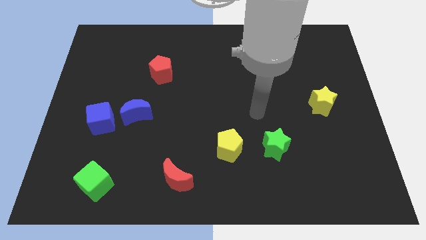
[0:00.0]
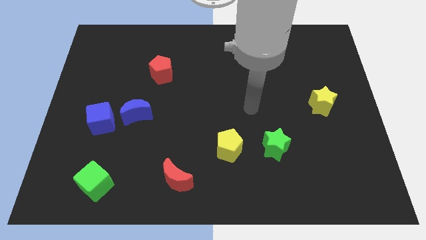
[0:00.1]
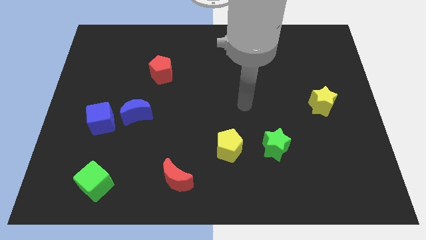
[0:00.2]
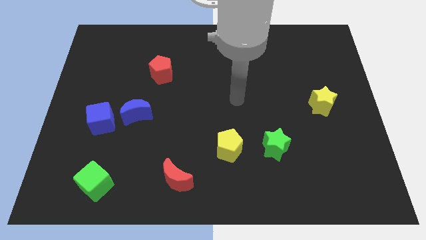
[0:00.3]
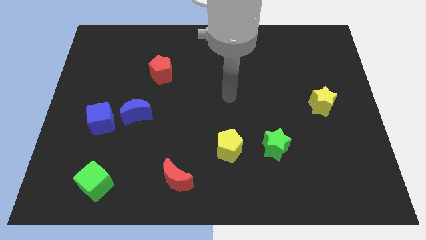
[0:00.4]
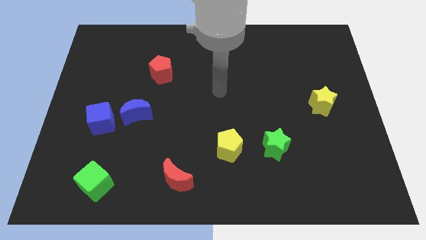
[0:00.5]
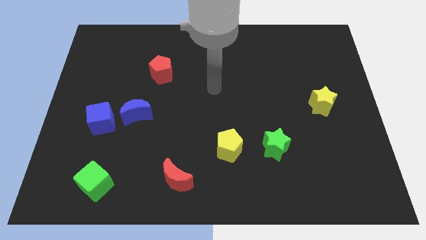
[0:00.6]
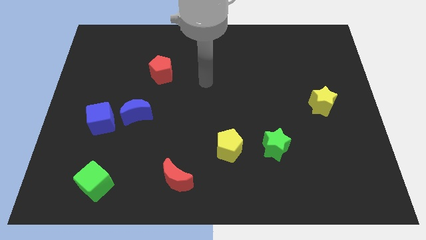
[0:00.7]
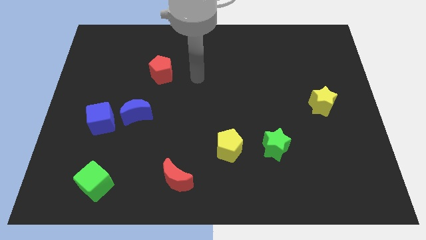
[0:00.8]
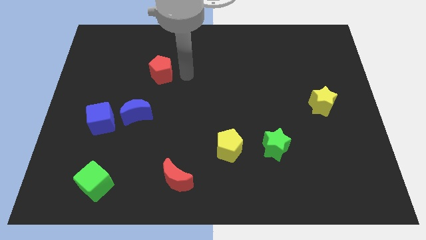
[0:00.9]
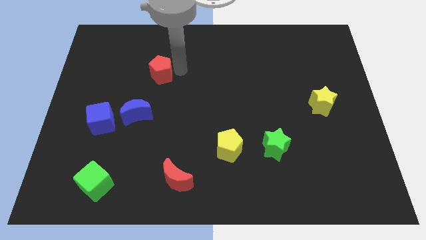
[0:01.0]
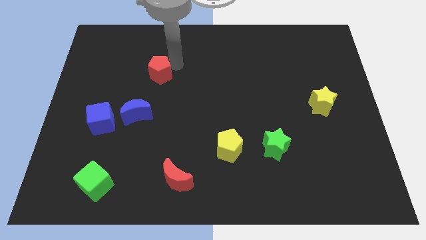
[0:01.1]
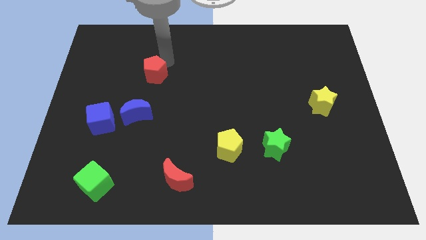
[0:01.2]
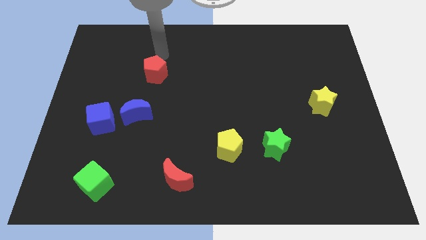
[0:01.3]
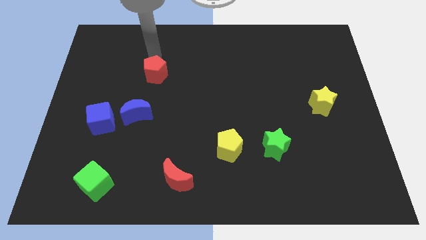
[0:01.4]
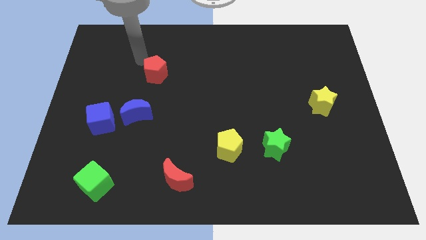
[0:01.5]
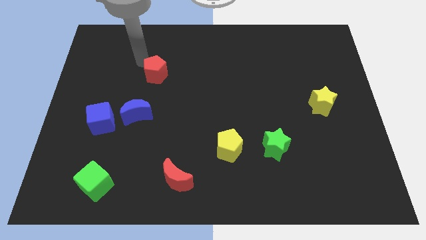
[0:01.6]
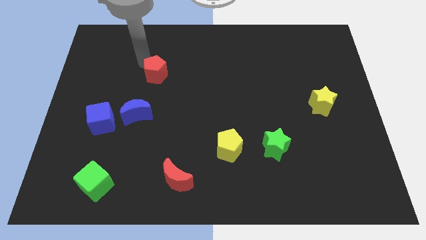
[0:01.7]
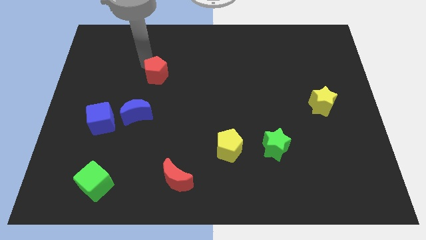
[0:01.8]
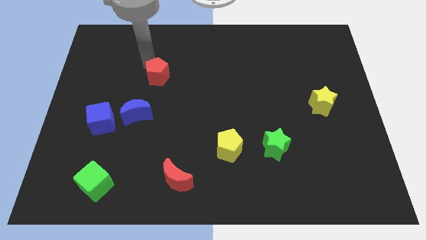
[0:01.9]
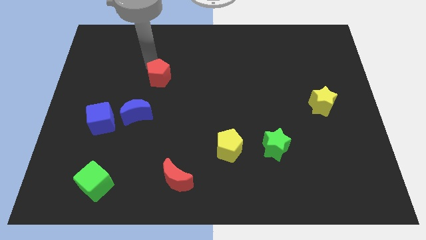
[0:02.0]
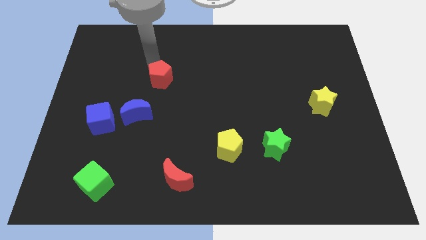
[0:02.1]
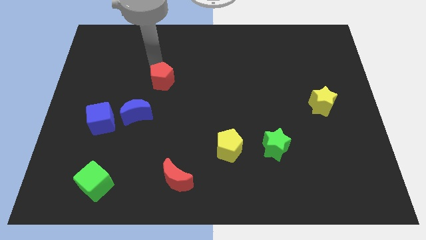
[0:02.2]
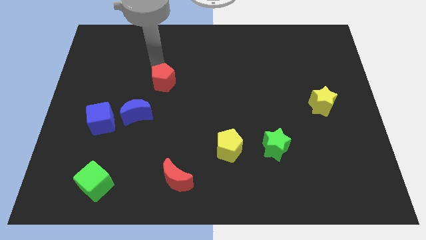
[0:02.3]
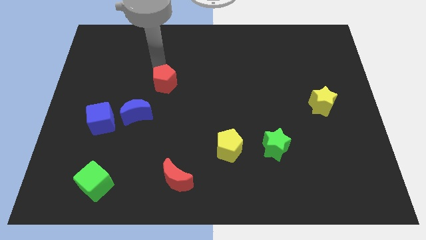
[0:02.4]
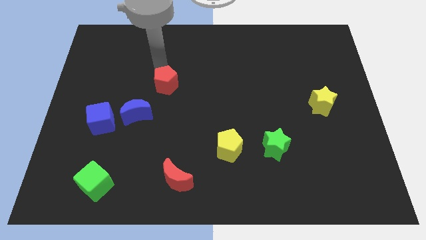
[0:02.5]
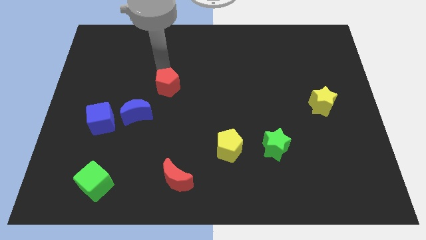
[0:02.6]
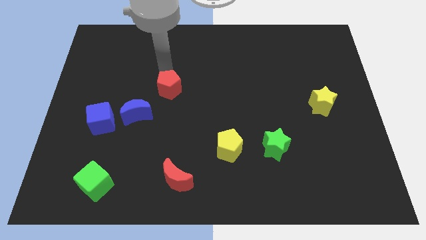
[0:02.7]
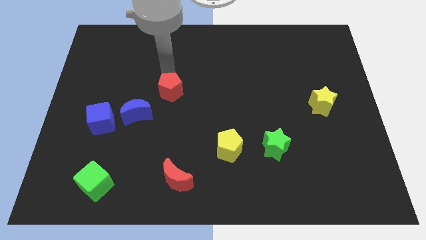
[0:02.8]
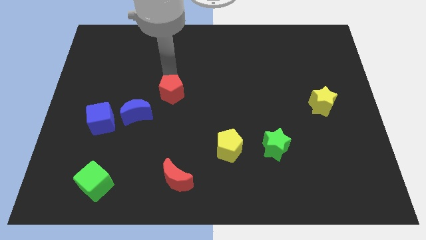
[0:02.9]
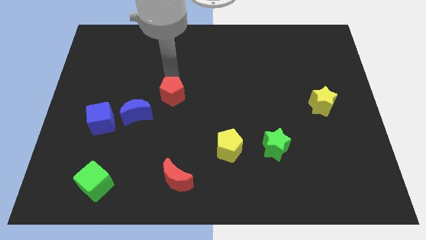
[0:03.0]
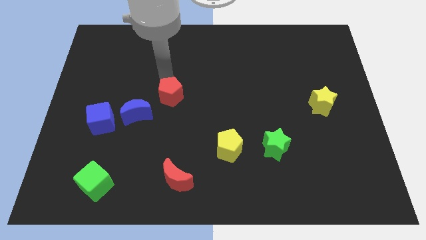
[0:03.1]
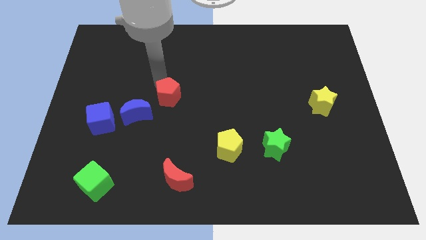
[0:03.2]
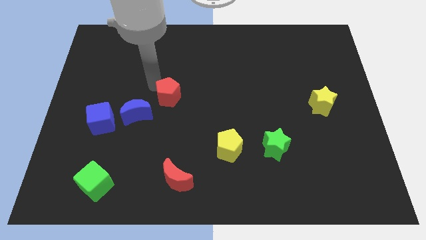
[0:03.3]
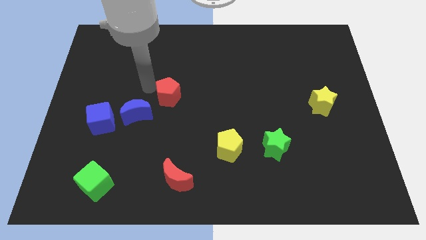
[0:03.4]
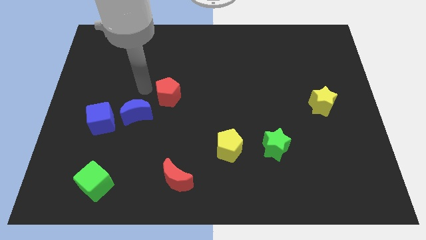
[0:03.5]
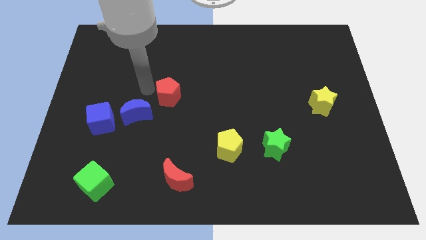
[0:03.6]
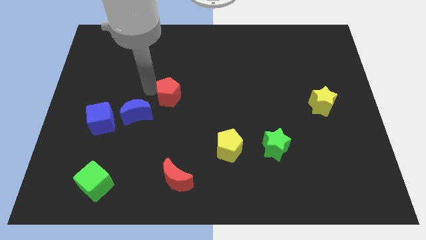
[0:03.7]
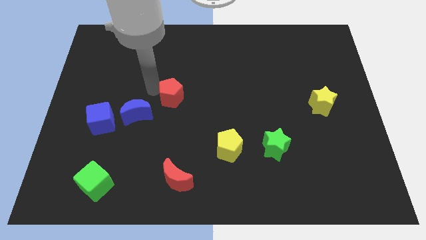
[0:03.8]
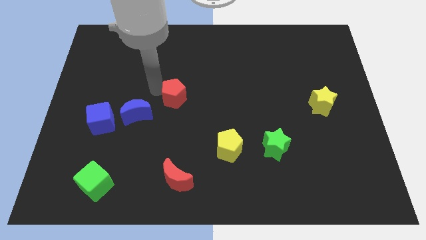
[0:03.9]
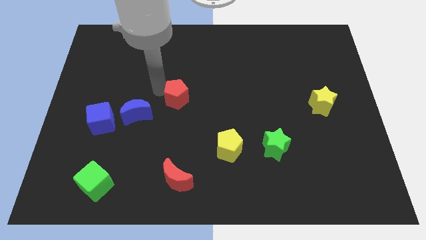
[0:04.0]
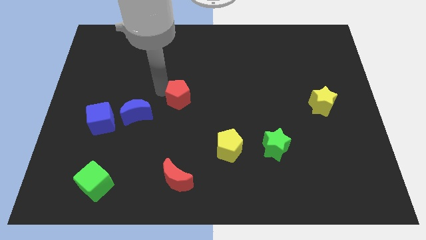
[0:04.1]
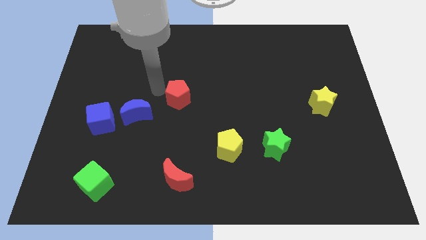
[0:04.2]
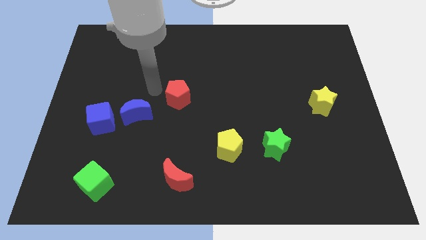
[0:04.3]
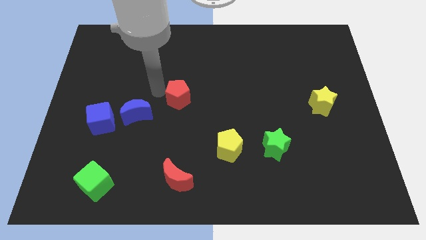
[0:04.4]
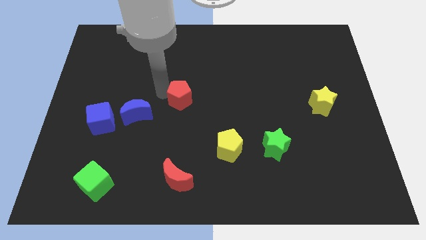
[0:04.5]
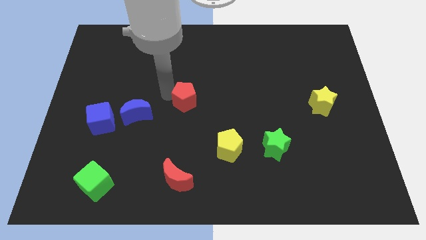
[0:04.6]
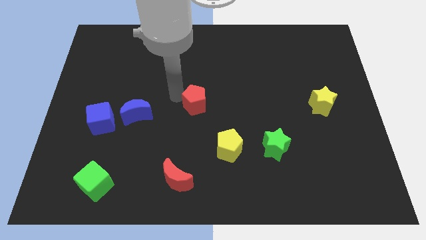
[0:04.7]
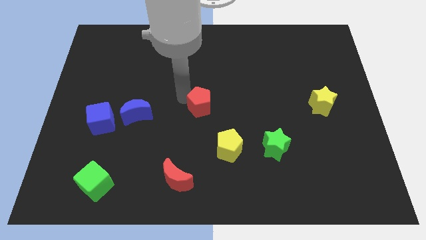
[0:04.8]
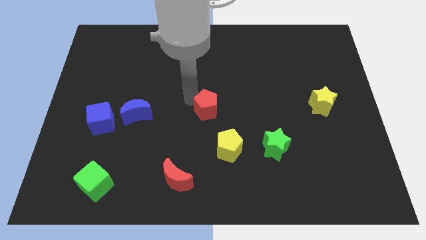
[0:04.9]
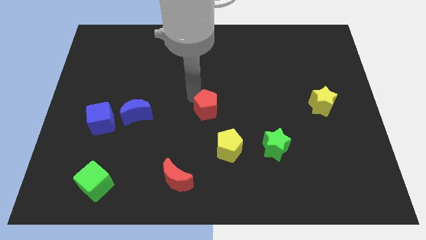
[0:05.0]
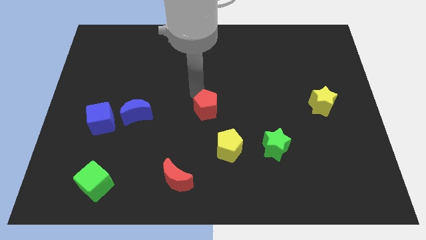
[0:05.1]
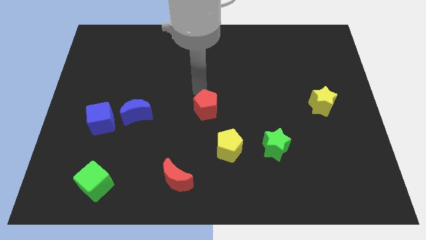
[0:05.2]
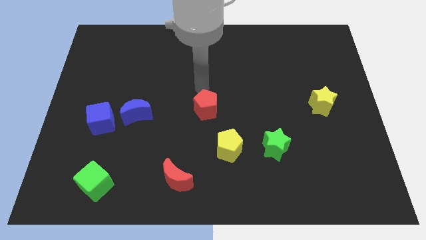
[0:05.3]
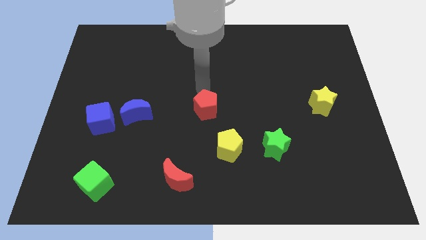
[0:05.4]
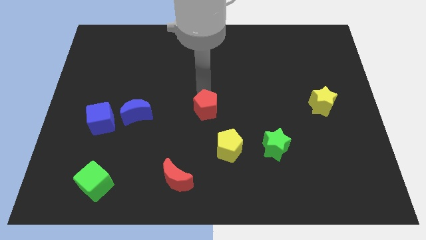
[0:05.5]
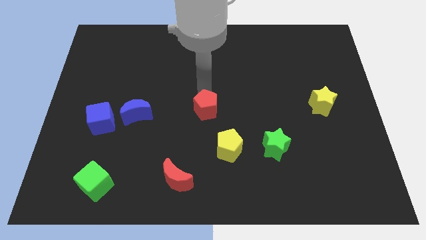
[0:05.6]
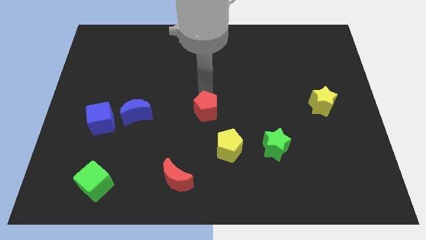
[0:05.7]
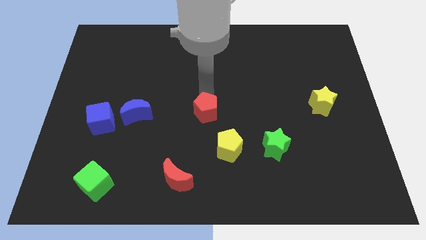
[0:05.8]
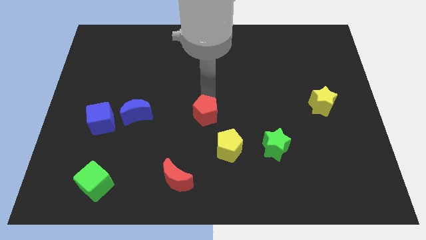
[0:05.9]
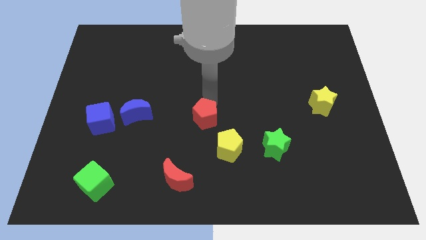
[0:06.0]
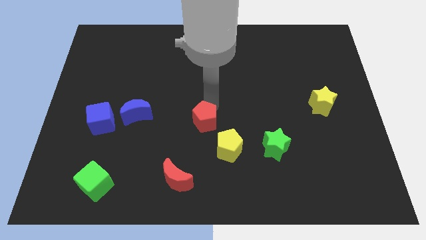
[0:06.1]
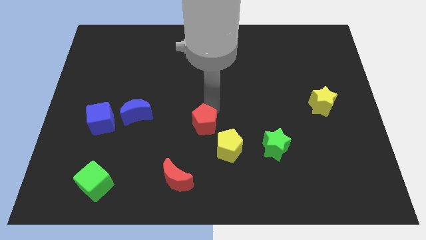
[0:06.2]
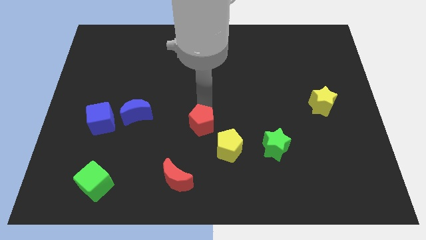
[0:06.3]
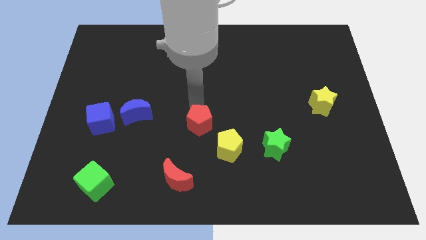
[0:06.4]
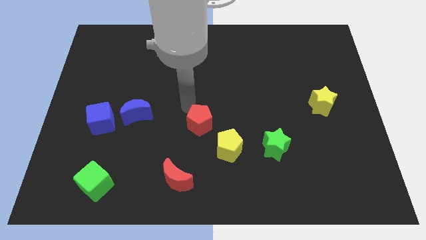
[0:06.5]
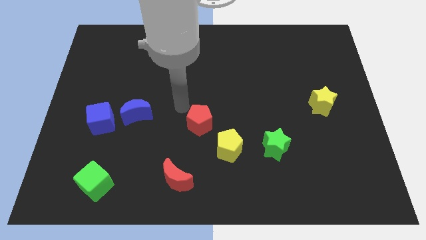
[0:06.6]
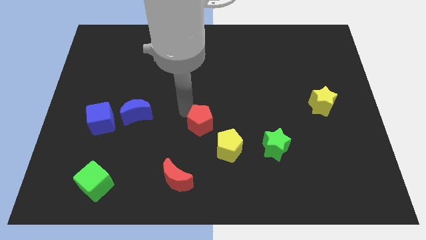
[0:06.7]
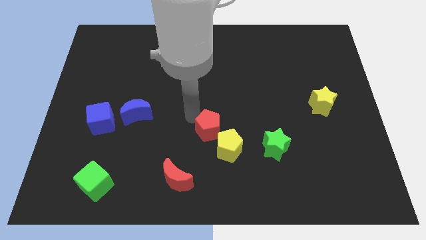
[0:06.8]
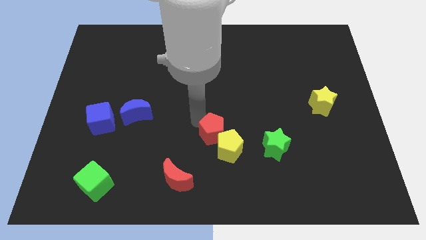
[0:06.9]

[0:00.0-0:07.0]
slide the red pentagon close to the yellow pentagon

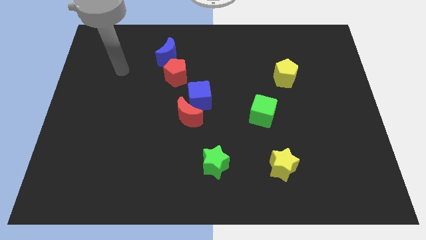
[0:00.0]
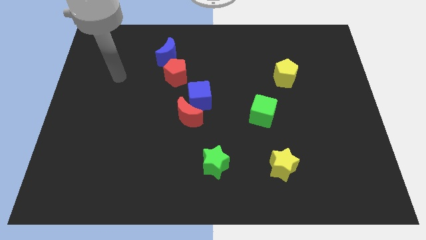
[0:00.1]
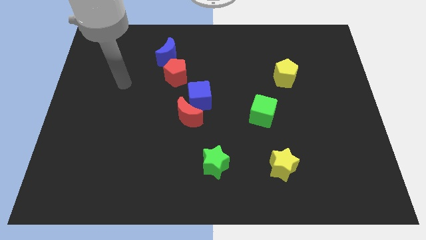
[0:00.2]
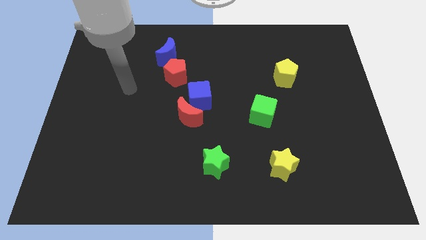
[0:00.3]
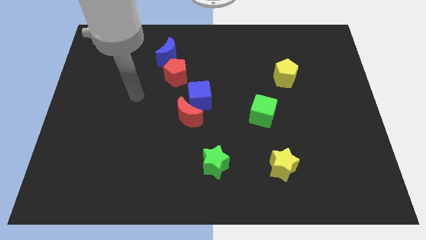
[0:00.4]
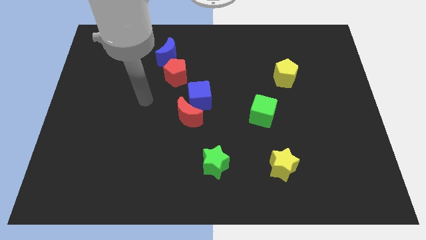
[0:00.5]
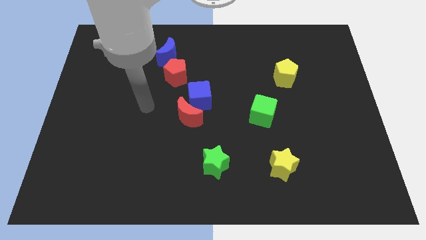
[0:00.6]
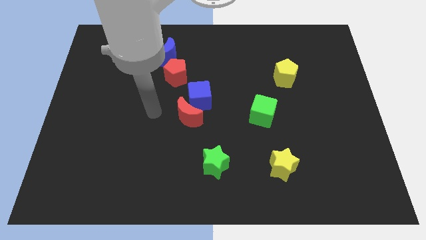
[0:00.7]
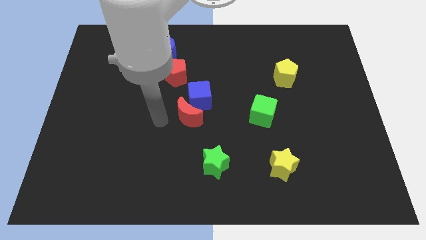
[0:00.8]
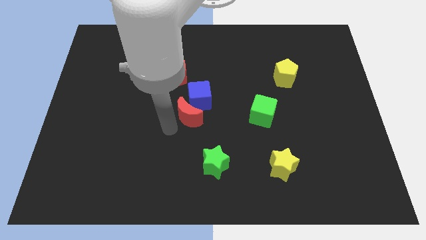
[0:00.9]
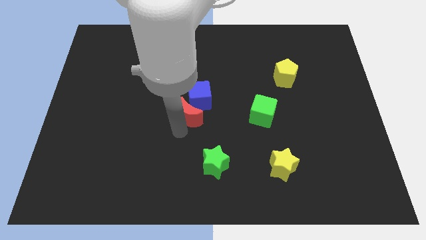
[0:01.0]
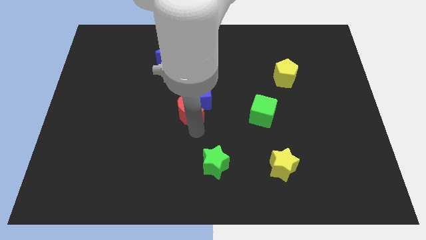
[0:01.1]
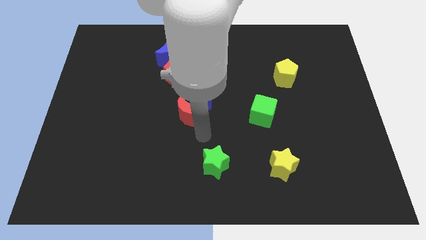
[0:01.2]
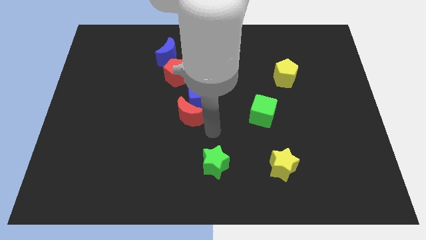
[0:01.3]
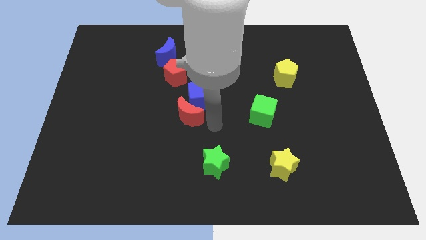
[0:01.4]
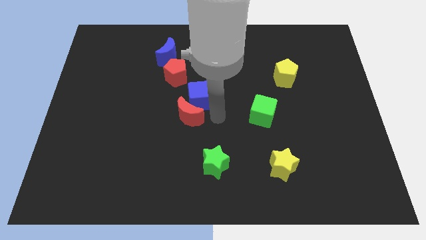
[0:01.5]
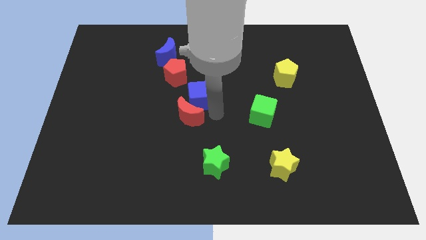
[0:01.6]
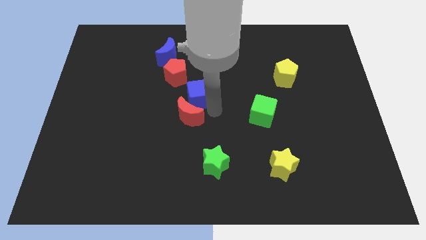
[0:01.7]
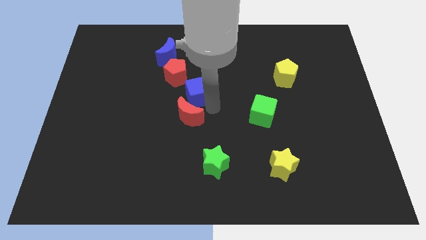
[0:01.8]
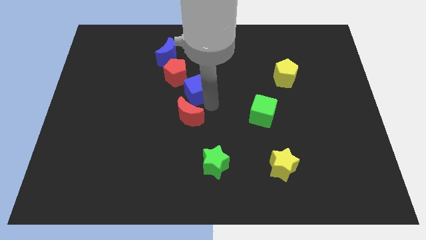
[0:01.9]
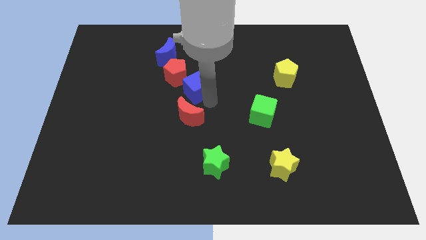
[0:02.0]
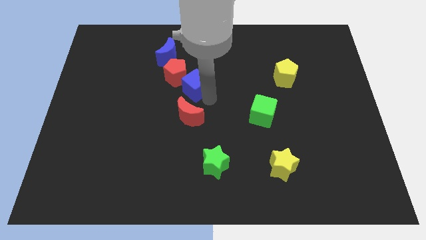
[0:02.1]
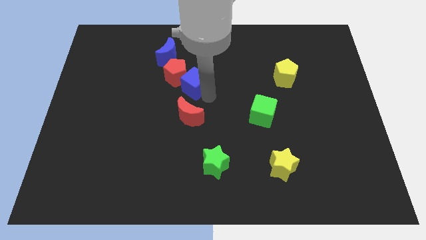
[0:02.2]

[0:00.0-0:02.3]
push the blue cube close to the red pentagon
